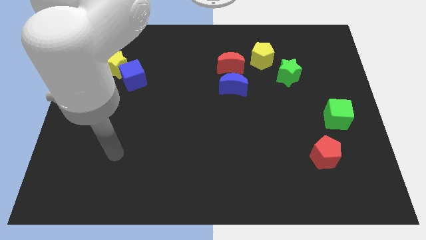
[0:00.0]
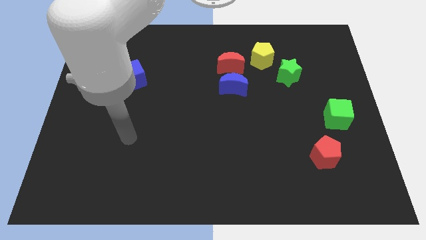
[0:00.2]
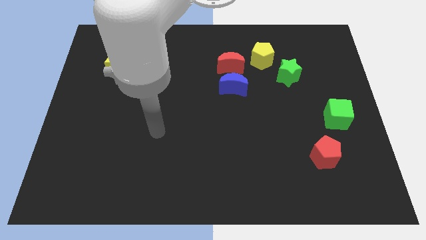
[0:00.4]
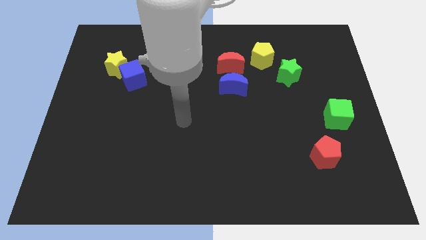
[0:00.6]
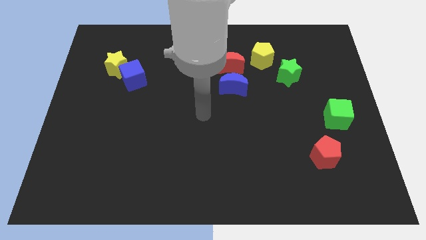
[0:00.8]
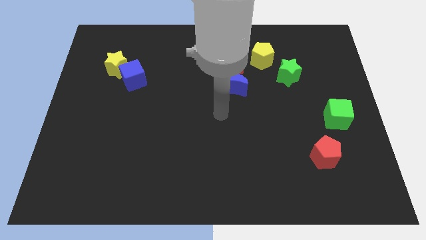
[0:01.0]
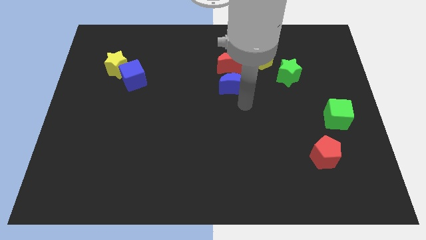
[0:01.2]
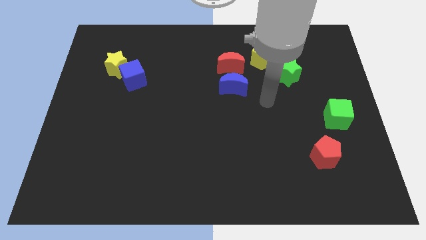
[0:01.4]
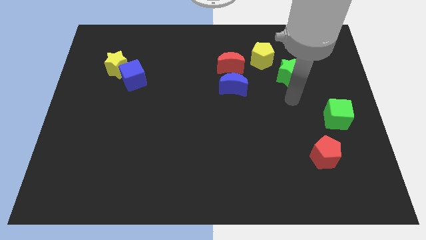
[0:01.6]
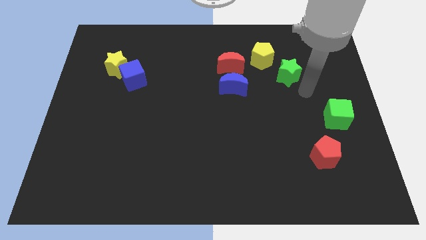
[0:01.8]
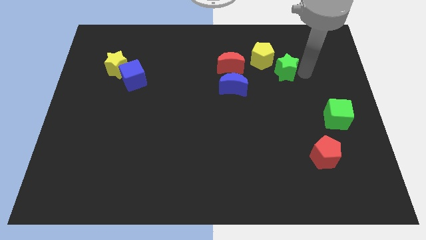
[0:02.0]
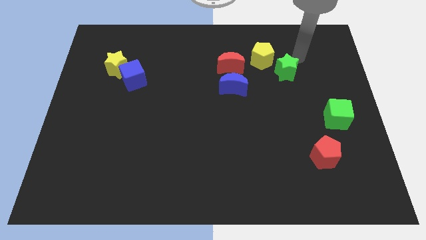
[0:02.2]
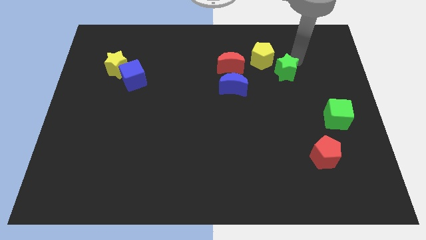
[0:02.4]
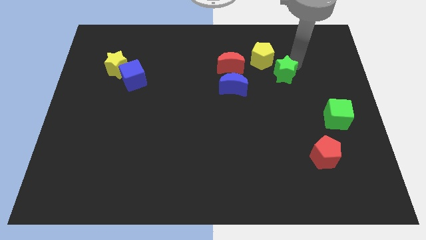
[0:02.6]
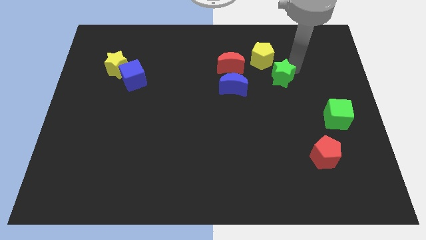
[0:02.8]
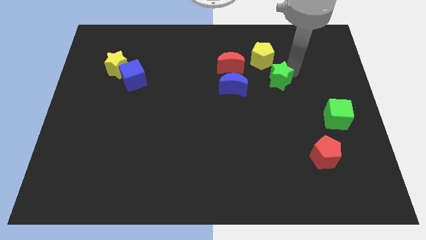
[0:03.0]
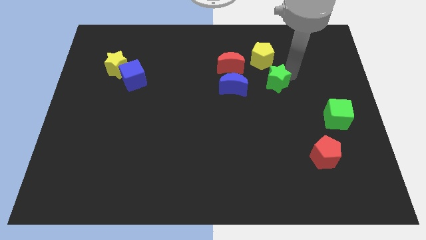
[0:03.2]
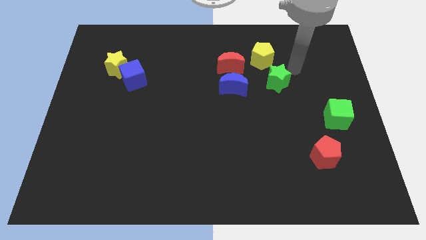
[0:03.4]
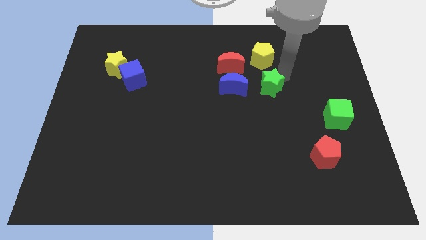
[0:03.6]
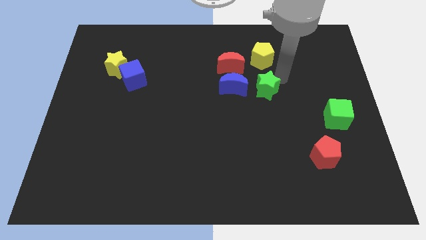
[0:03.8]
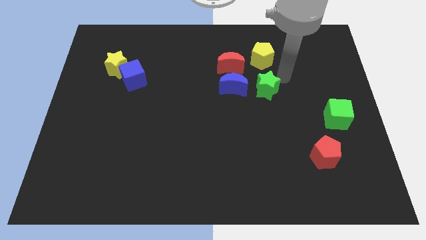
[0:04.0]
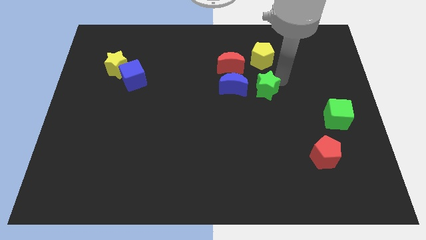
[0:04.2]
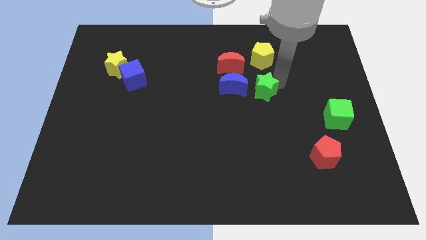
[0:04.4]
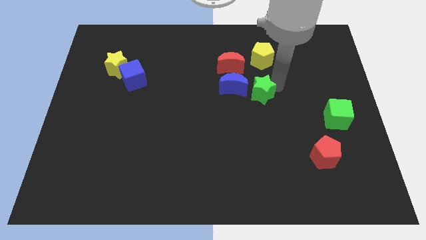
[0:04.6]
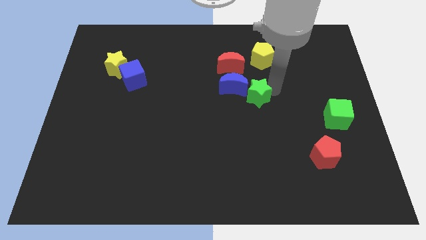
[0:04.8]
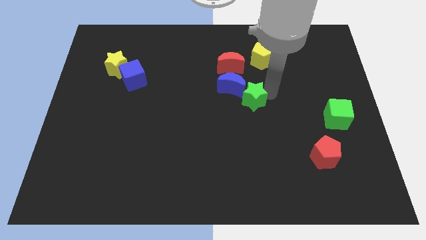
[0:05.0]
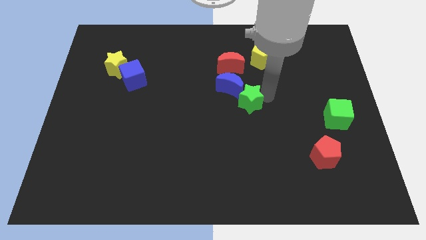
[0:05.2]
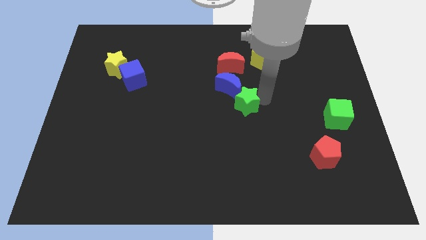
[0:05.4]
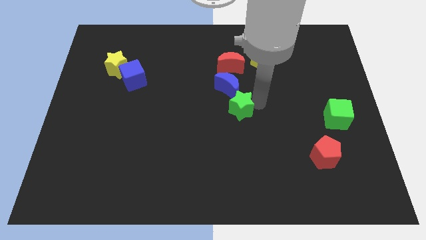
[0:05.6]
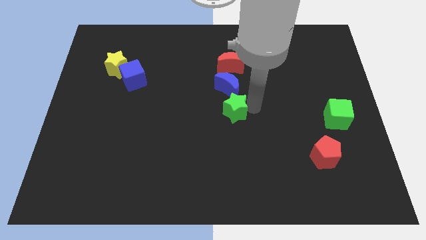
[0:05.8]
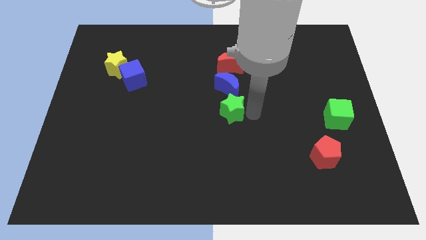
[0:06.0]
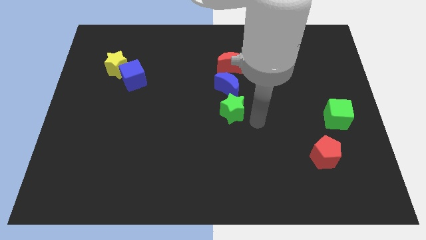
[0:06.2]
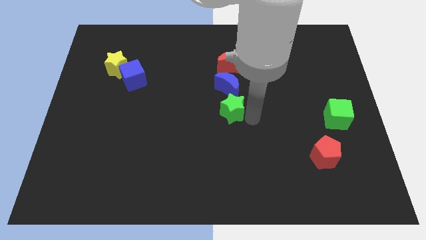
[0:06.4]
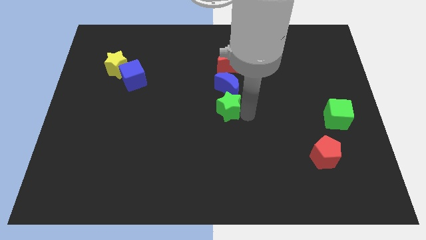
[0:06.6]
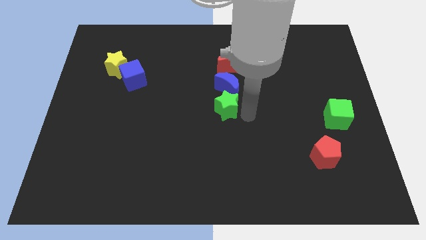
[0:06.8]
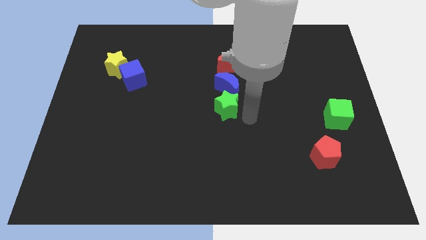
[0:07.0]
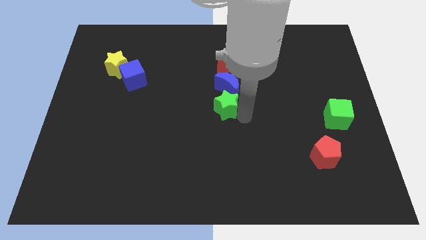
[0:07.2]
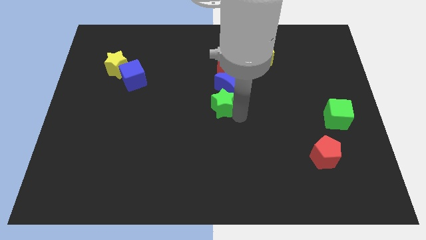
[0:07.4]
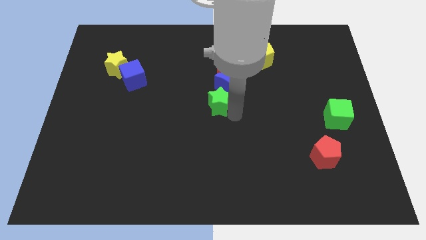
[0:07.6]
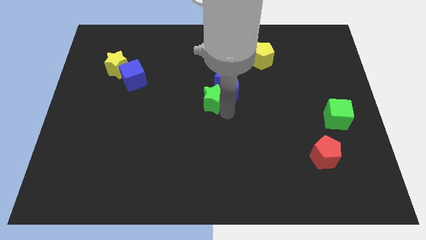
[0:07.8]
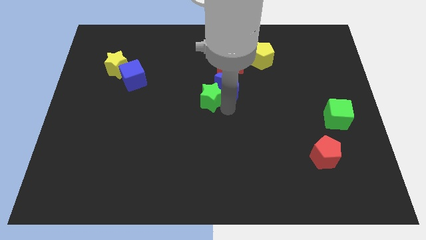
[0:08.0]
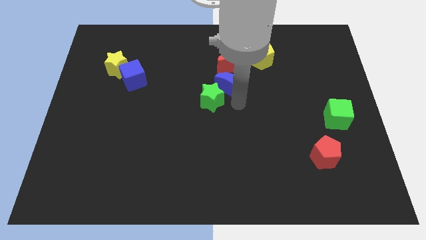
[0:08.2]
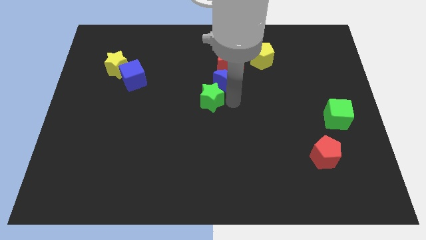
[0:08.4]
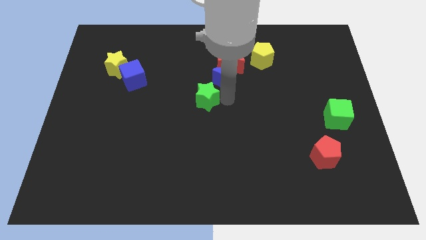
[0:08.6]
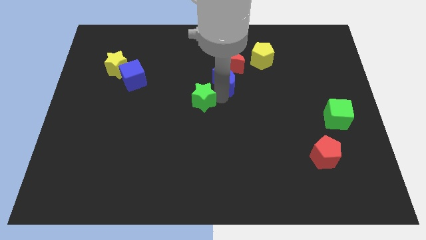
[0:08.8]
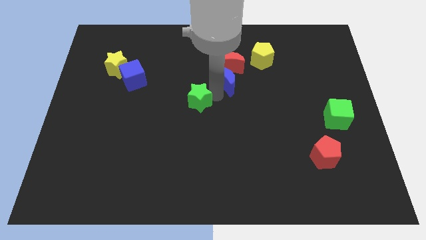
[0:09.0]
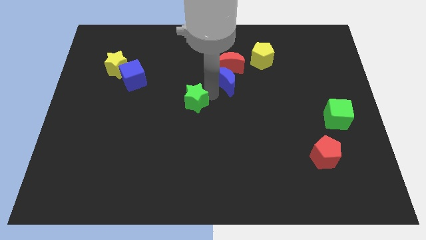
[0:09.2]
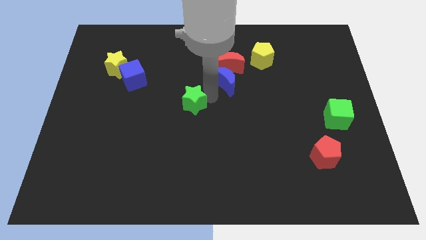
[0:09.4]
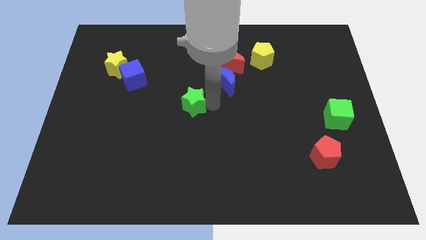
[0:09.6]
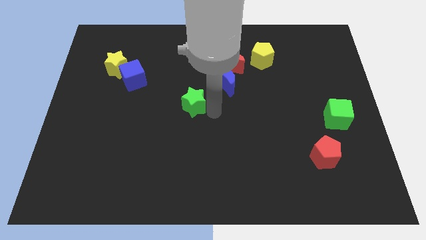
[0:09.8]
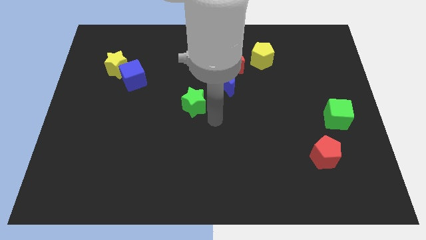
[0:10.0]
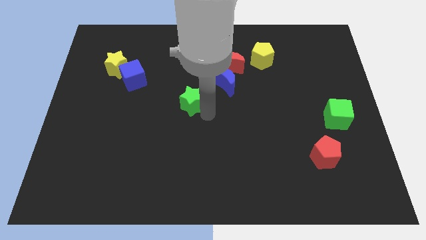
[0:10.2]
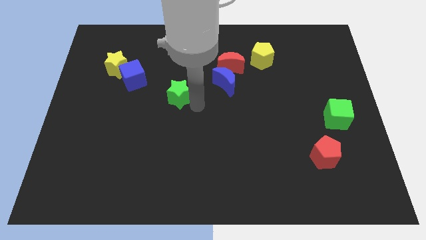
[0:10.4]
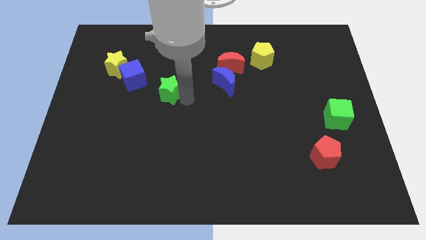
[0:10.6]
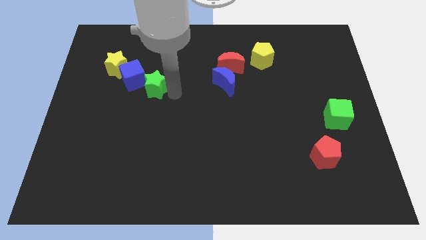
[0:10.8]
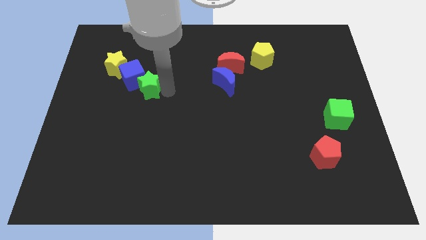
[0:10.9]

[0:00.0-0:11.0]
push the green star towards the blue cube

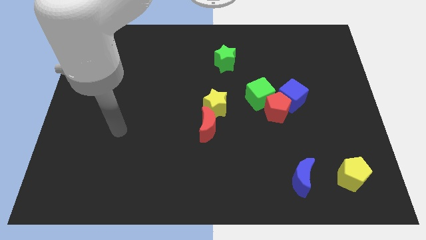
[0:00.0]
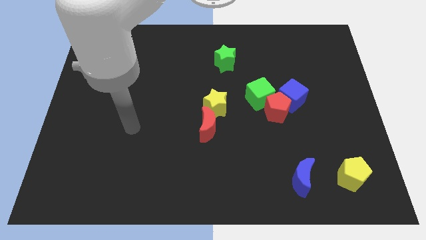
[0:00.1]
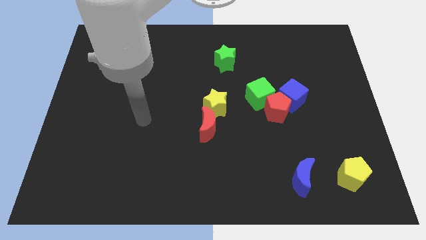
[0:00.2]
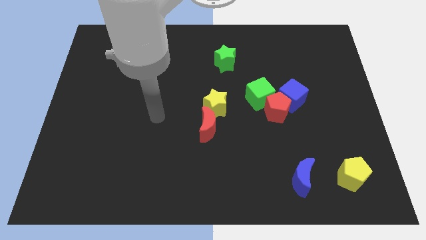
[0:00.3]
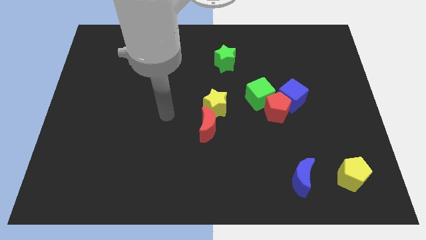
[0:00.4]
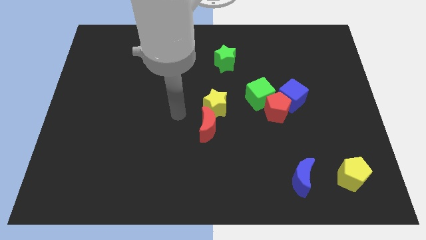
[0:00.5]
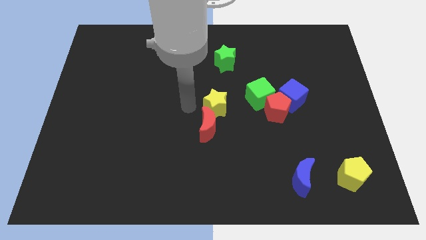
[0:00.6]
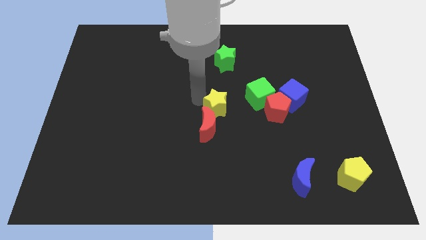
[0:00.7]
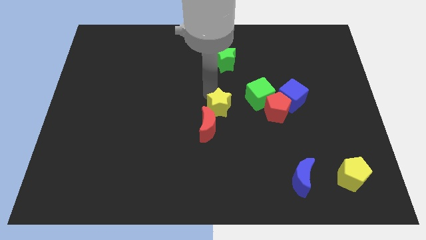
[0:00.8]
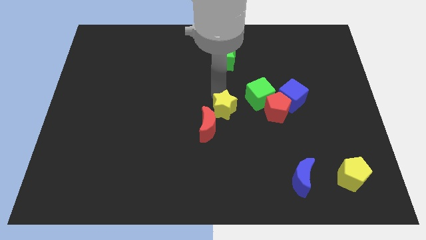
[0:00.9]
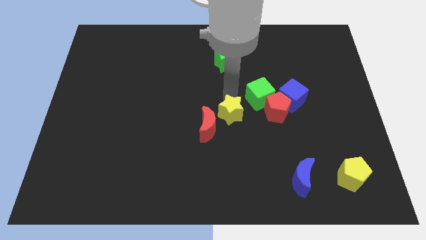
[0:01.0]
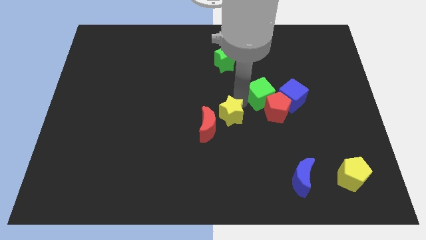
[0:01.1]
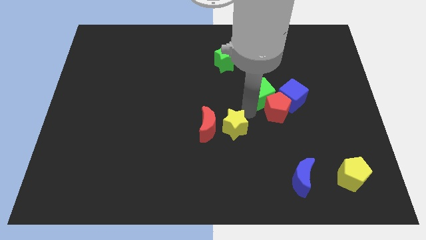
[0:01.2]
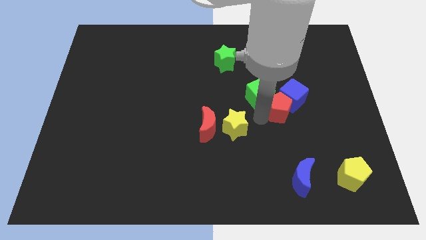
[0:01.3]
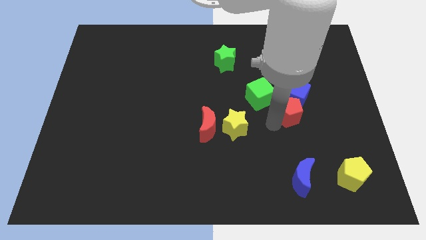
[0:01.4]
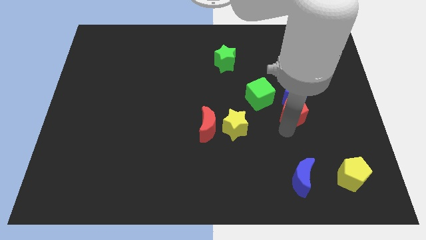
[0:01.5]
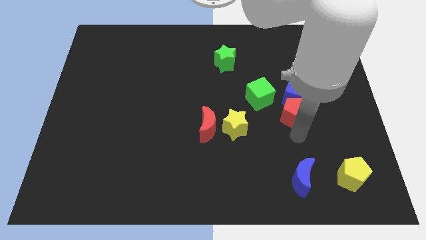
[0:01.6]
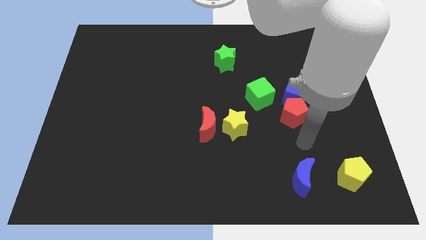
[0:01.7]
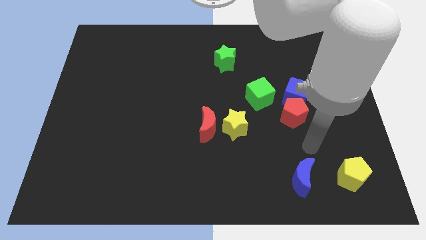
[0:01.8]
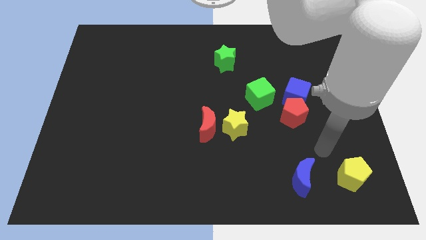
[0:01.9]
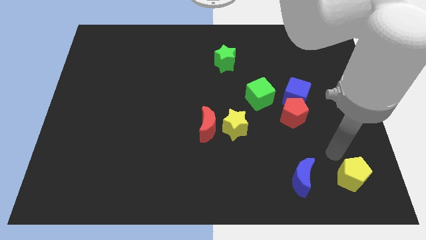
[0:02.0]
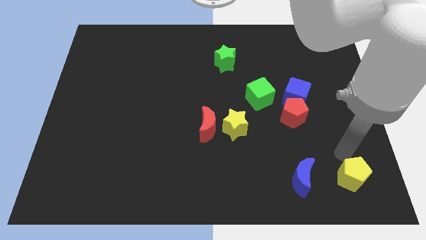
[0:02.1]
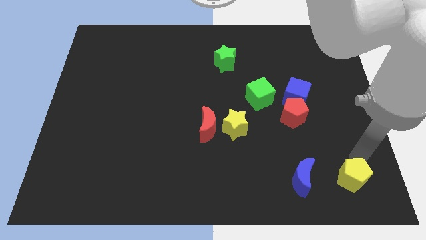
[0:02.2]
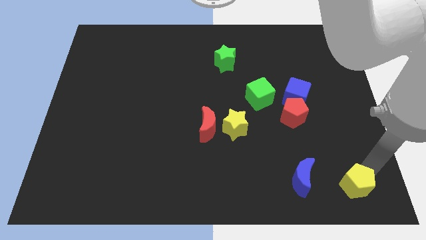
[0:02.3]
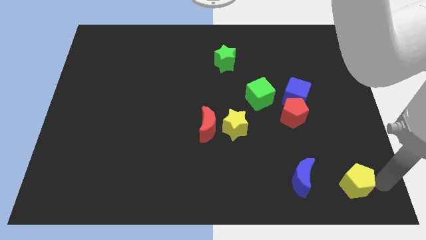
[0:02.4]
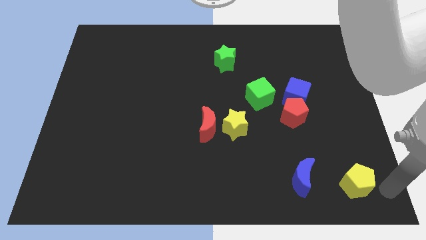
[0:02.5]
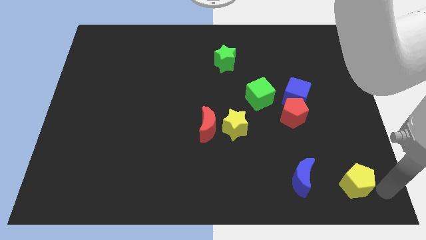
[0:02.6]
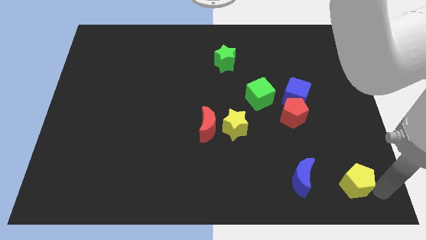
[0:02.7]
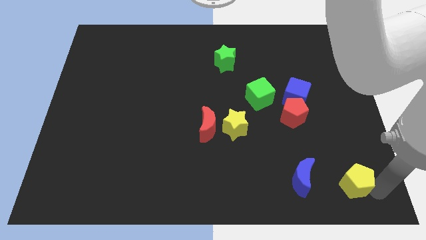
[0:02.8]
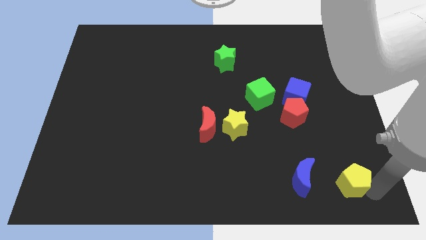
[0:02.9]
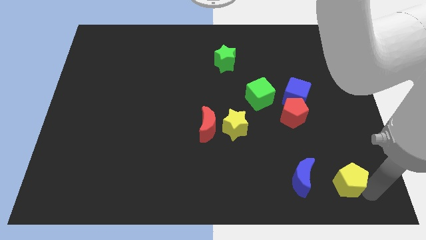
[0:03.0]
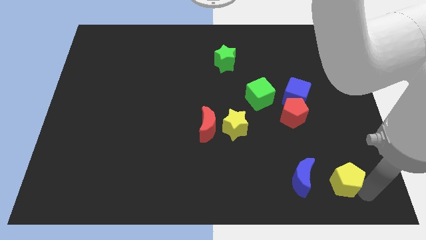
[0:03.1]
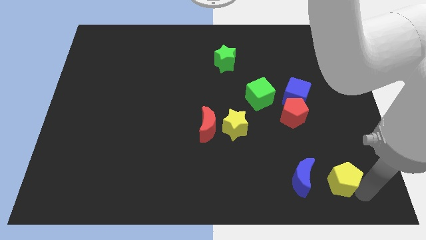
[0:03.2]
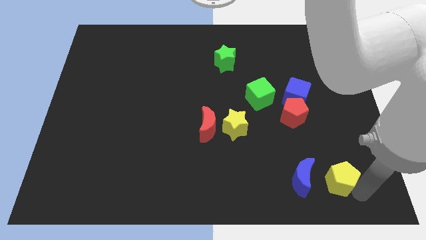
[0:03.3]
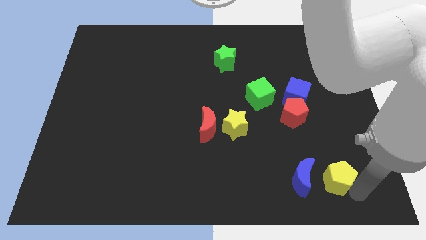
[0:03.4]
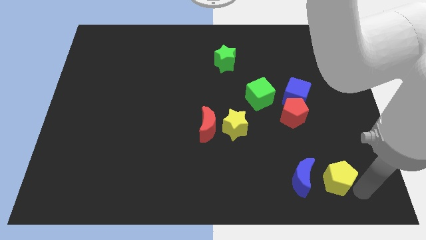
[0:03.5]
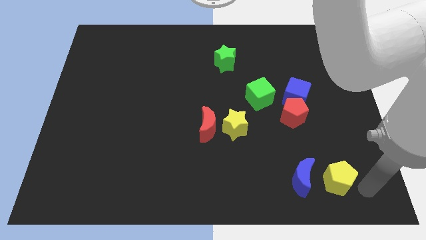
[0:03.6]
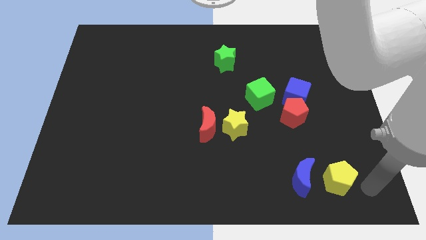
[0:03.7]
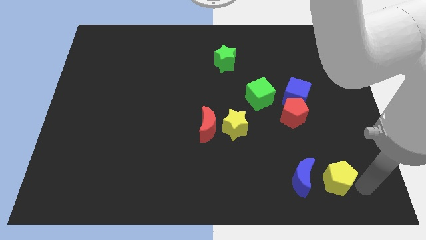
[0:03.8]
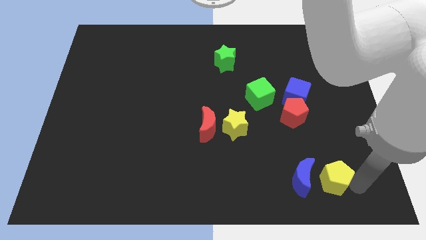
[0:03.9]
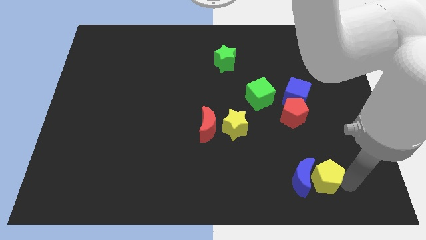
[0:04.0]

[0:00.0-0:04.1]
push the yellow pentagon next to the blue moon
